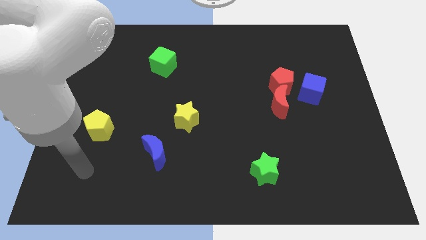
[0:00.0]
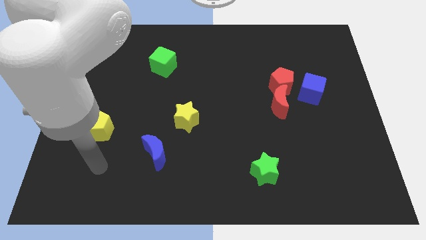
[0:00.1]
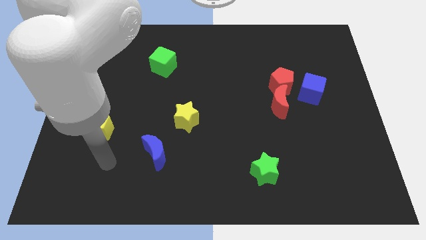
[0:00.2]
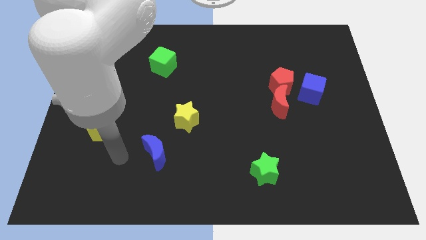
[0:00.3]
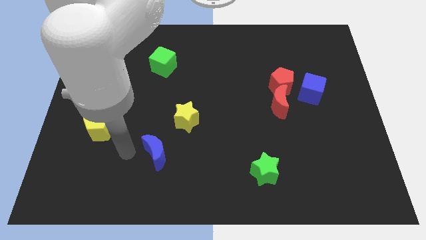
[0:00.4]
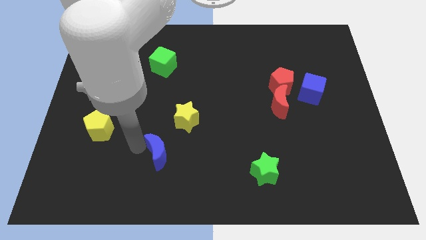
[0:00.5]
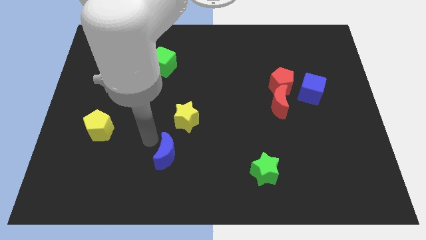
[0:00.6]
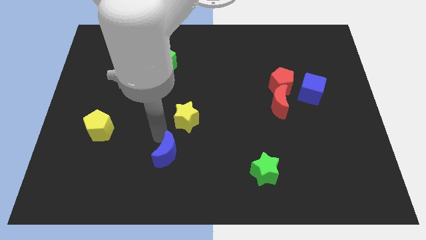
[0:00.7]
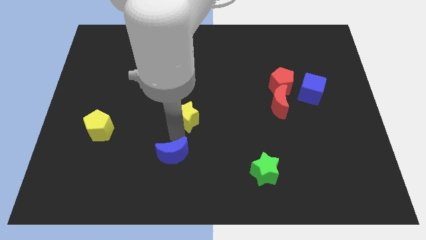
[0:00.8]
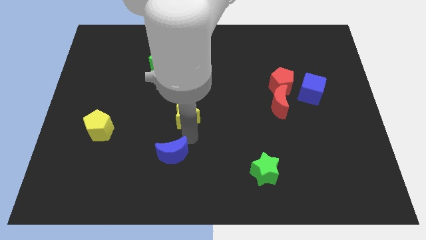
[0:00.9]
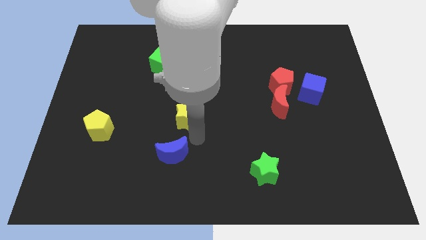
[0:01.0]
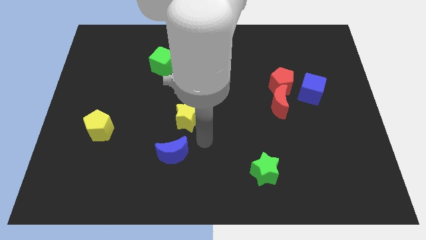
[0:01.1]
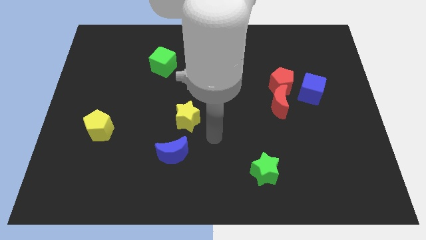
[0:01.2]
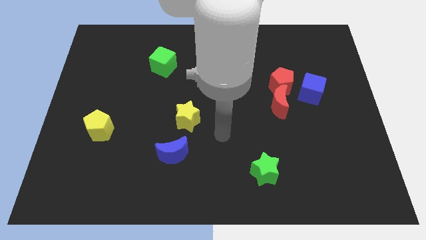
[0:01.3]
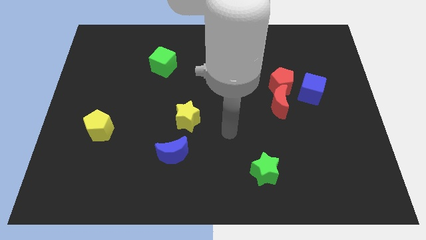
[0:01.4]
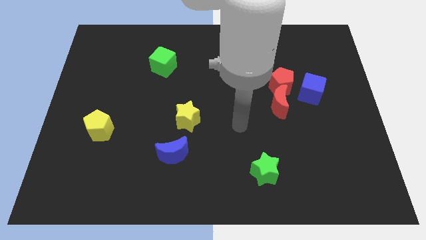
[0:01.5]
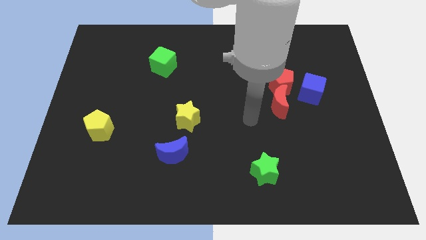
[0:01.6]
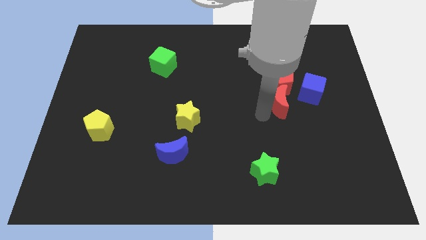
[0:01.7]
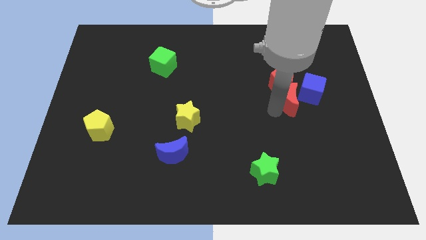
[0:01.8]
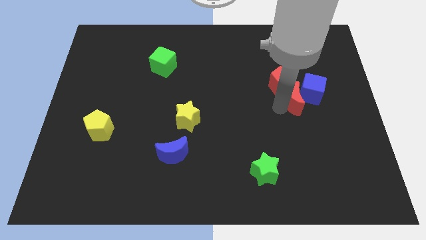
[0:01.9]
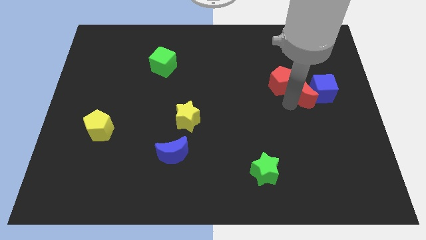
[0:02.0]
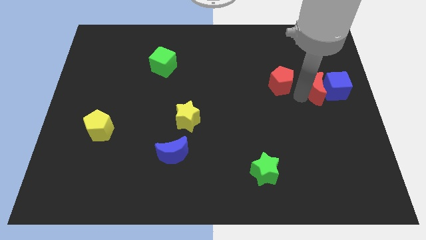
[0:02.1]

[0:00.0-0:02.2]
move the red pentagon away from the red moon and blue cube

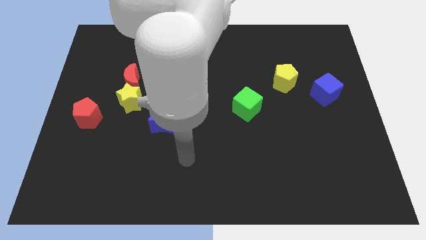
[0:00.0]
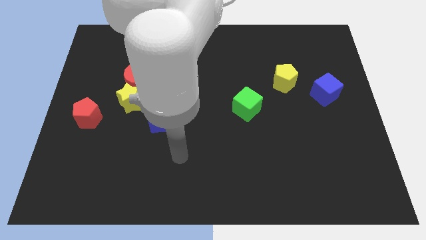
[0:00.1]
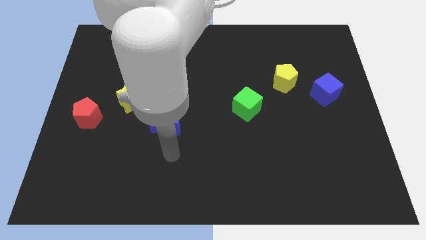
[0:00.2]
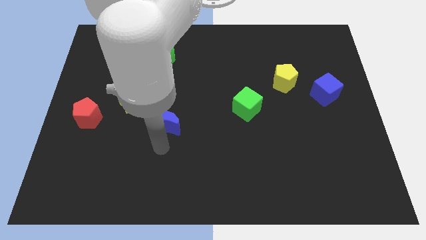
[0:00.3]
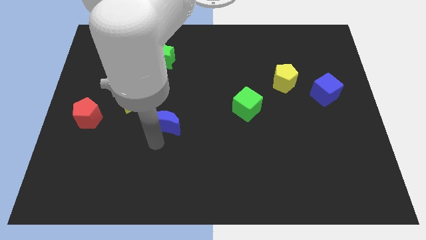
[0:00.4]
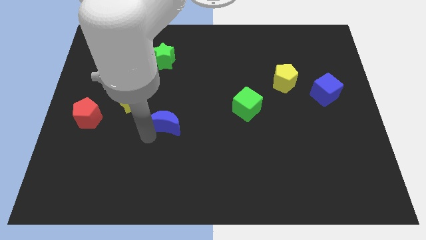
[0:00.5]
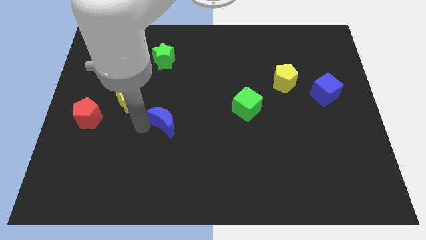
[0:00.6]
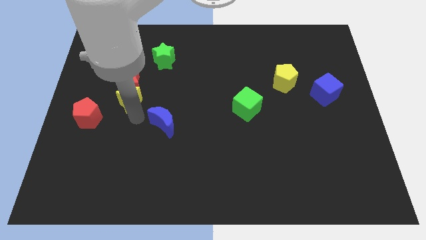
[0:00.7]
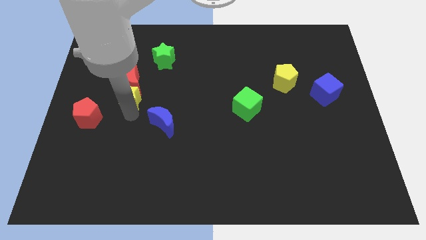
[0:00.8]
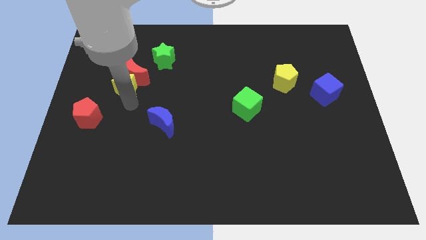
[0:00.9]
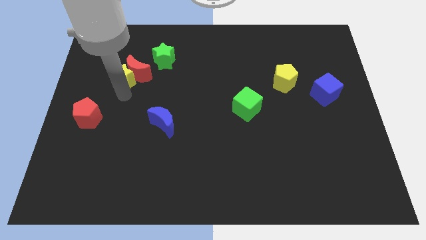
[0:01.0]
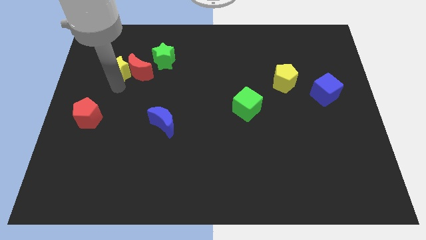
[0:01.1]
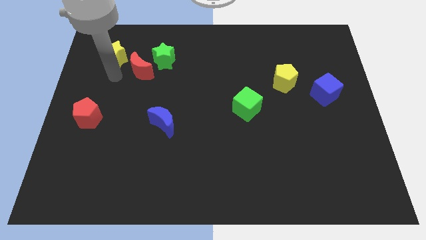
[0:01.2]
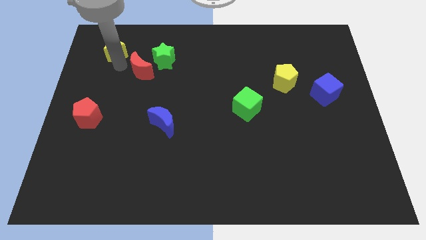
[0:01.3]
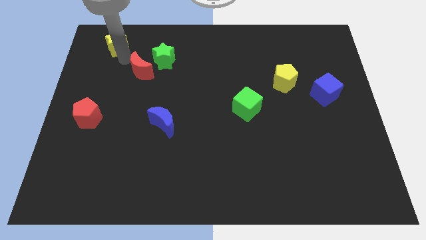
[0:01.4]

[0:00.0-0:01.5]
pull the red moon apart from the yellow star

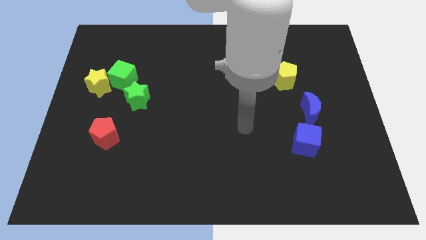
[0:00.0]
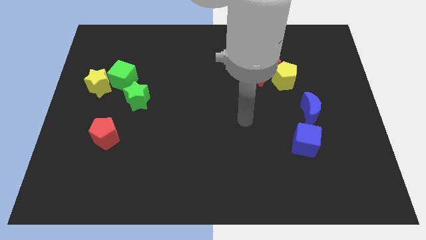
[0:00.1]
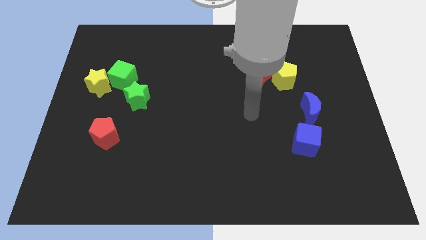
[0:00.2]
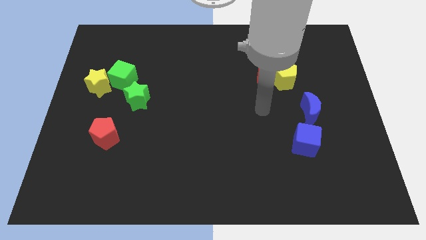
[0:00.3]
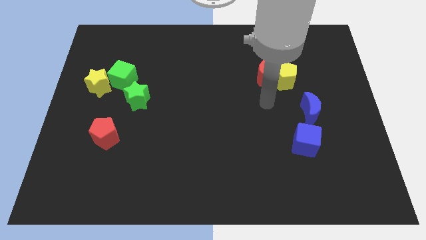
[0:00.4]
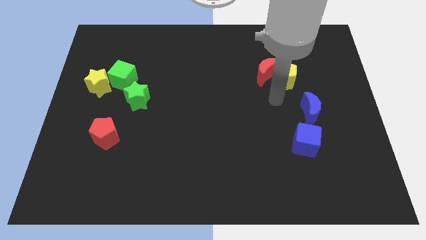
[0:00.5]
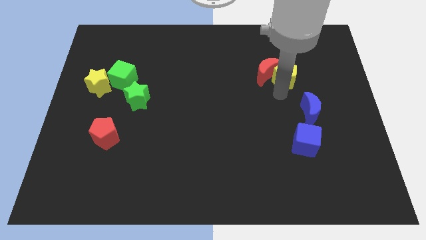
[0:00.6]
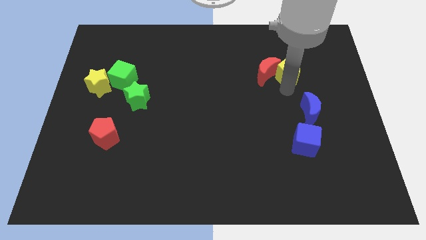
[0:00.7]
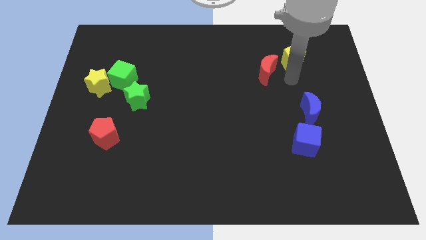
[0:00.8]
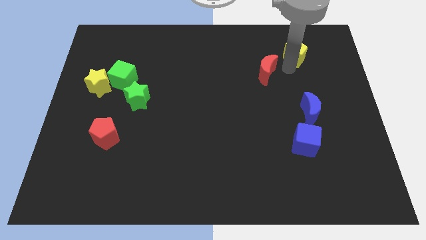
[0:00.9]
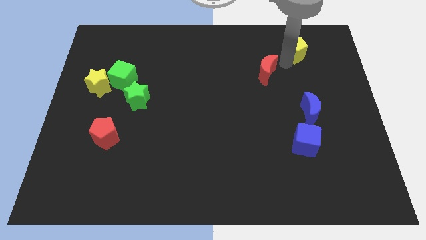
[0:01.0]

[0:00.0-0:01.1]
pull the red moon apart from the yellow pentagon

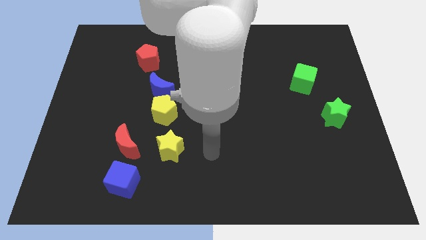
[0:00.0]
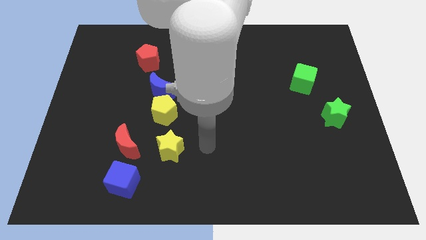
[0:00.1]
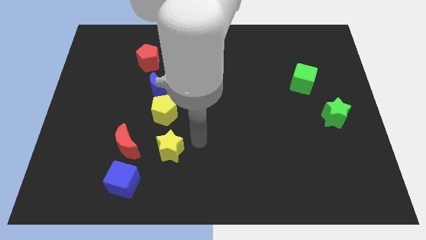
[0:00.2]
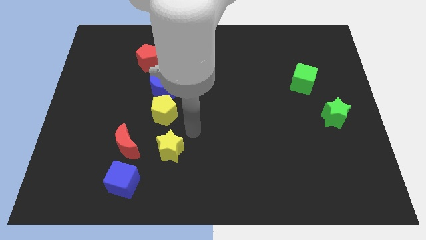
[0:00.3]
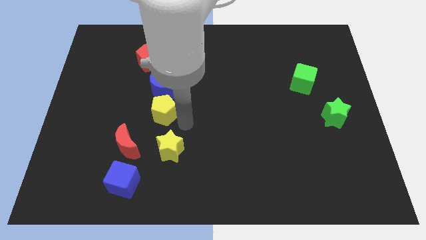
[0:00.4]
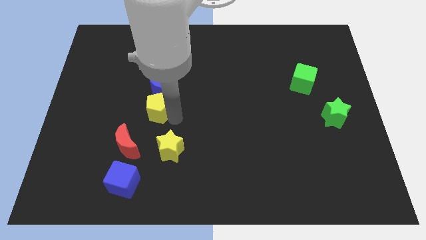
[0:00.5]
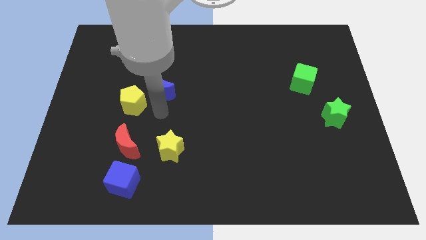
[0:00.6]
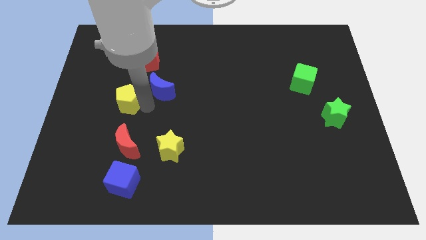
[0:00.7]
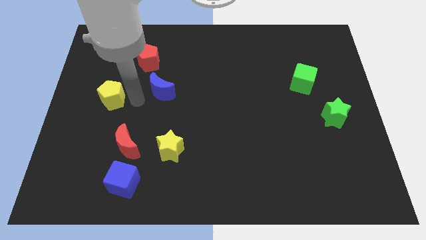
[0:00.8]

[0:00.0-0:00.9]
separate the blue moon from the yellow pentagon

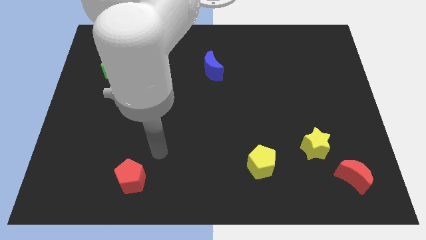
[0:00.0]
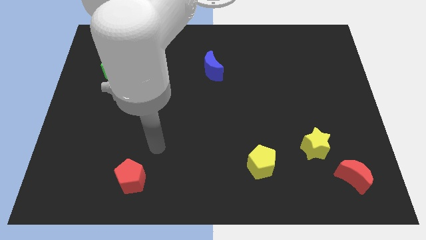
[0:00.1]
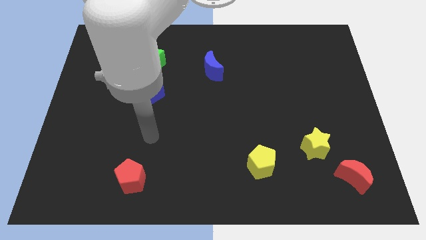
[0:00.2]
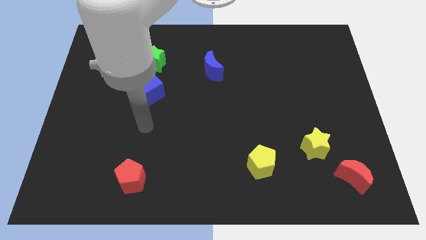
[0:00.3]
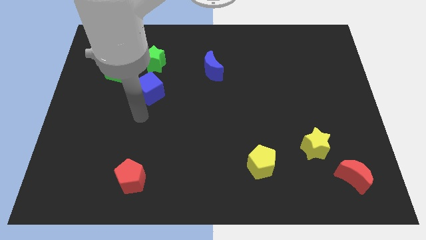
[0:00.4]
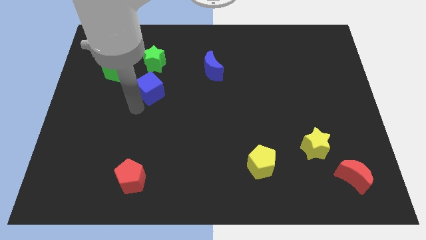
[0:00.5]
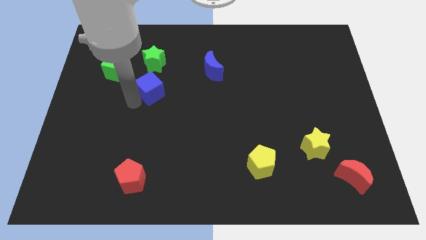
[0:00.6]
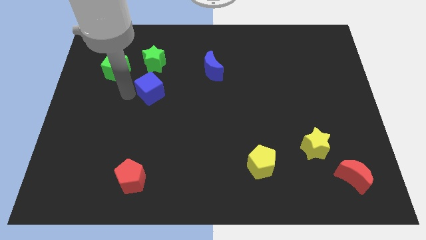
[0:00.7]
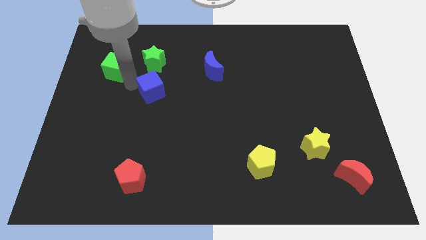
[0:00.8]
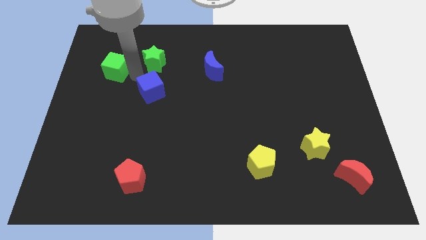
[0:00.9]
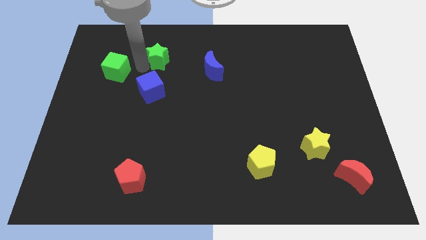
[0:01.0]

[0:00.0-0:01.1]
pull the green cube apart from the green star

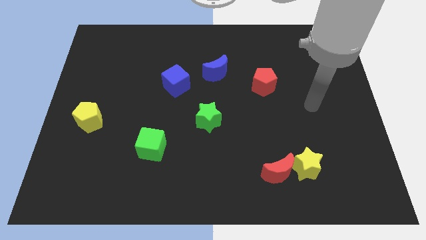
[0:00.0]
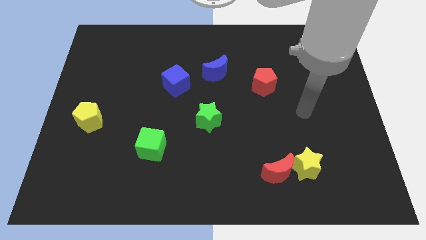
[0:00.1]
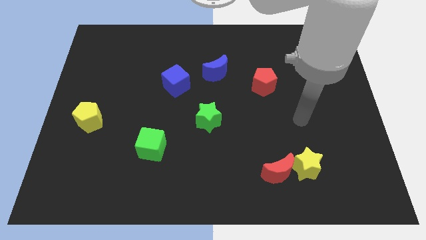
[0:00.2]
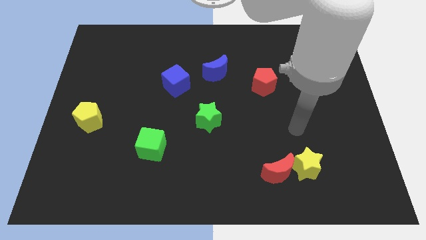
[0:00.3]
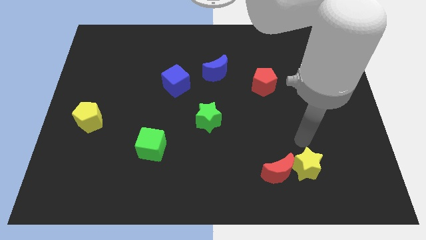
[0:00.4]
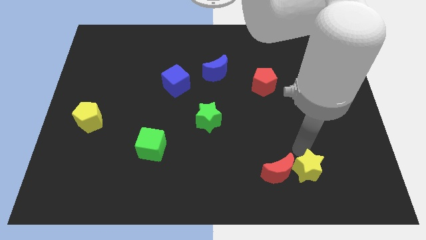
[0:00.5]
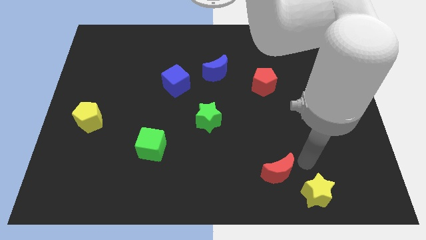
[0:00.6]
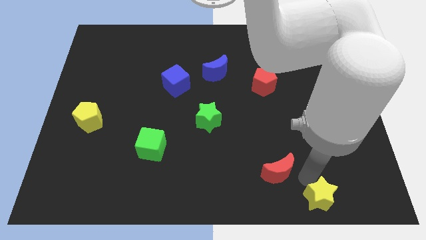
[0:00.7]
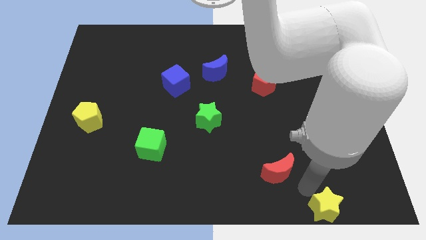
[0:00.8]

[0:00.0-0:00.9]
move the red moon away from the yellow star

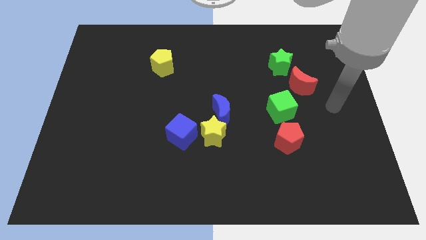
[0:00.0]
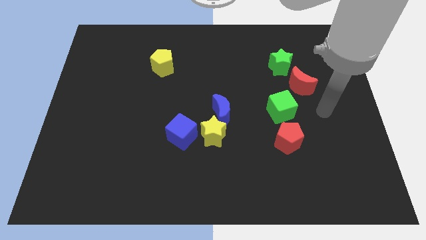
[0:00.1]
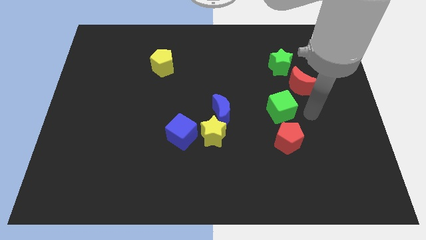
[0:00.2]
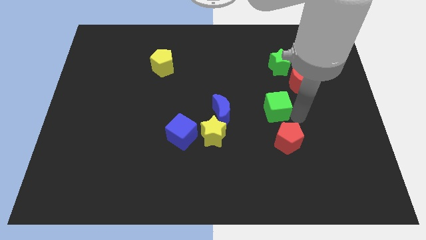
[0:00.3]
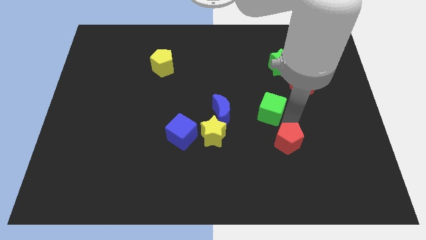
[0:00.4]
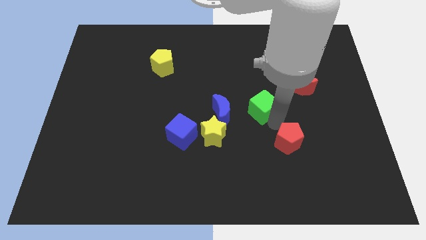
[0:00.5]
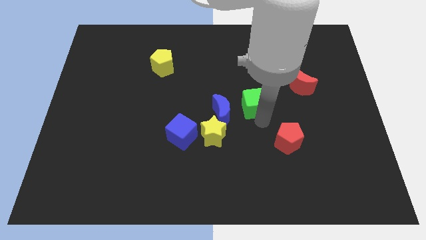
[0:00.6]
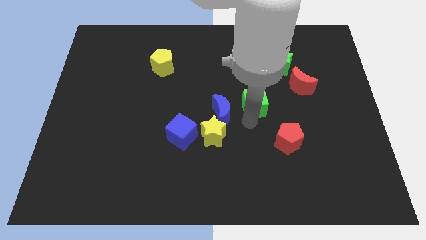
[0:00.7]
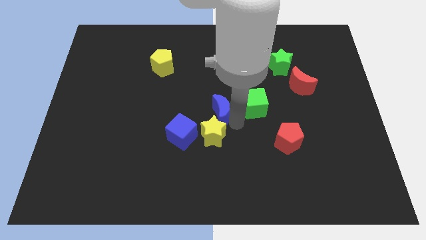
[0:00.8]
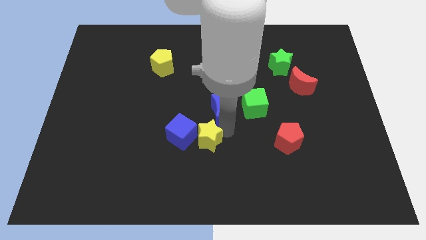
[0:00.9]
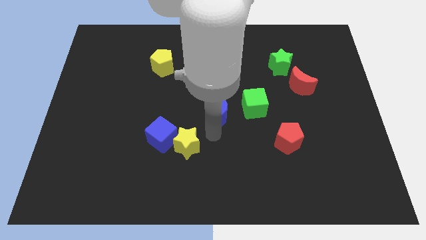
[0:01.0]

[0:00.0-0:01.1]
move the blue moon away from the yellow star

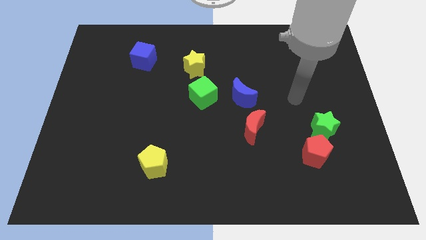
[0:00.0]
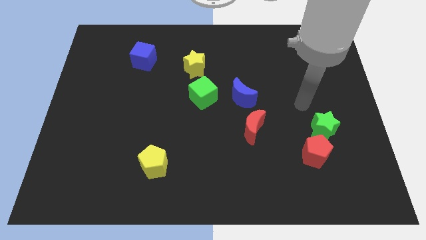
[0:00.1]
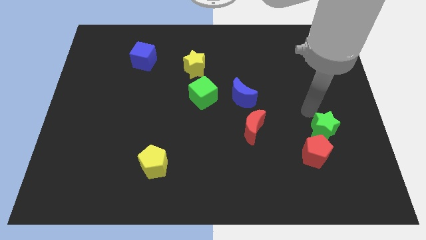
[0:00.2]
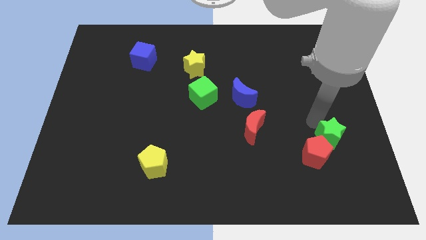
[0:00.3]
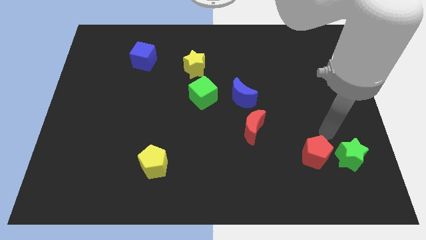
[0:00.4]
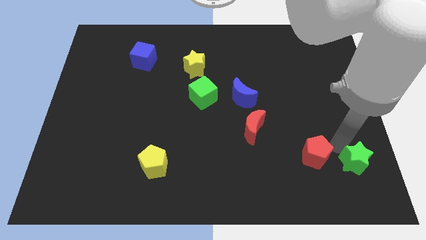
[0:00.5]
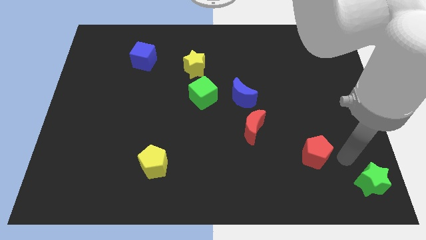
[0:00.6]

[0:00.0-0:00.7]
separate the red pentagon from the green star
